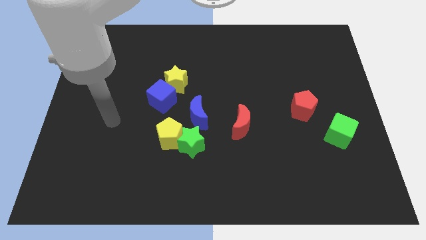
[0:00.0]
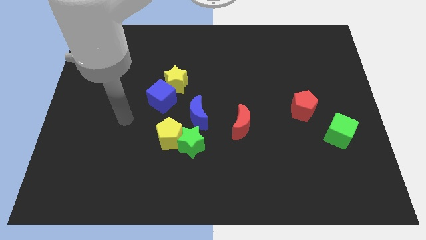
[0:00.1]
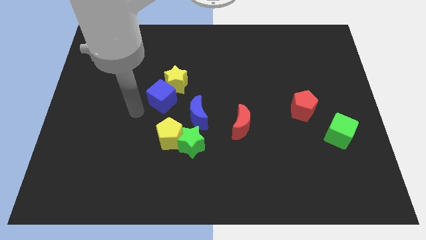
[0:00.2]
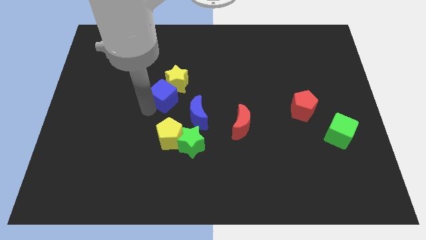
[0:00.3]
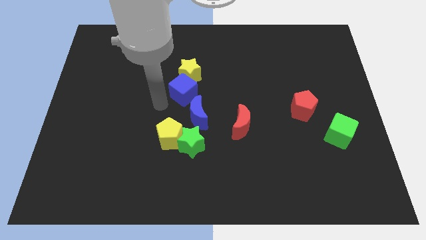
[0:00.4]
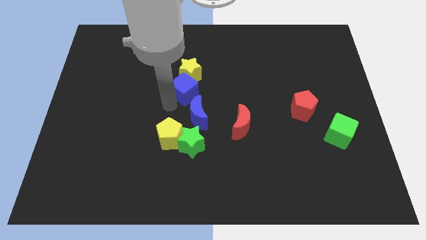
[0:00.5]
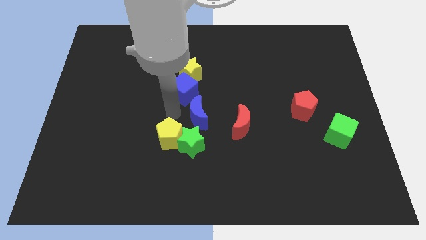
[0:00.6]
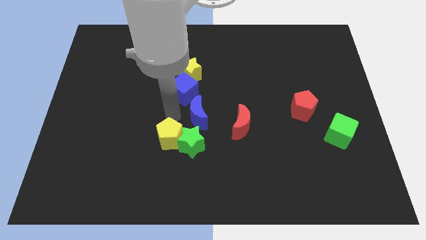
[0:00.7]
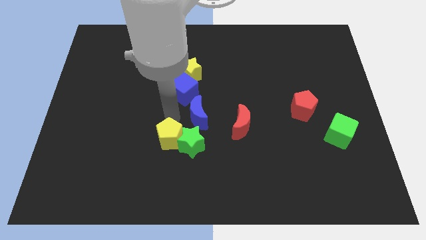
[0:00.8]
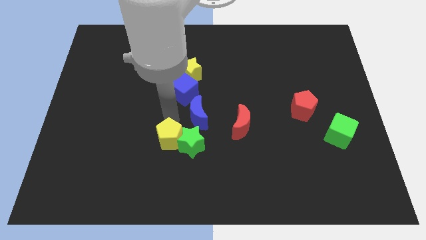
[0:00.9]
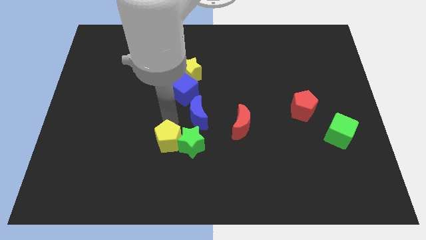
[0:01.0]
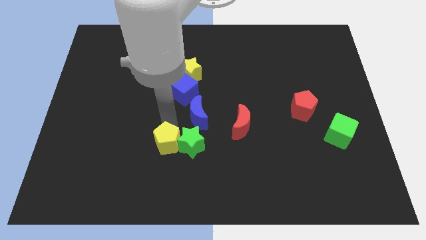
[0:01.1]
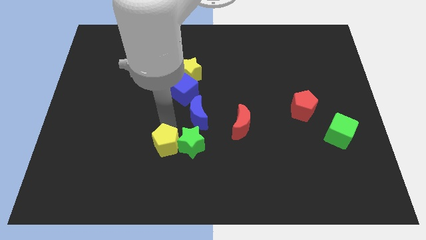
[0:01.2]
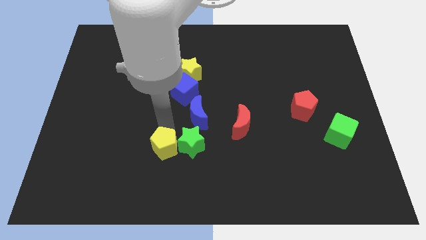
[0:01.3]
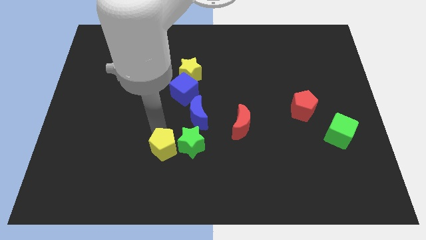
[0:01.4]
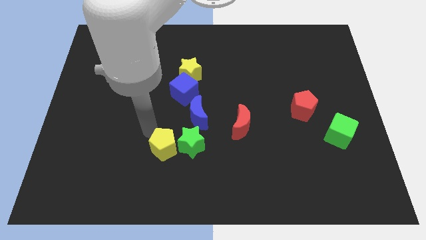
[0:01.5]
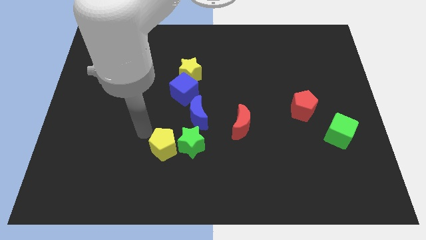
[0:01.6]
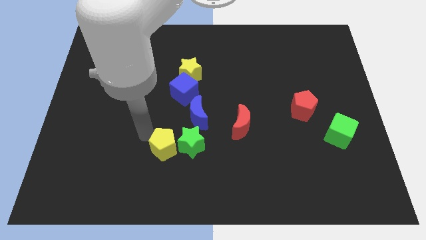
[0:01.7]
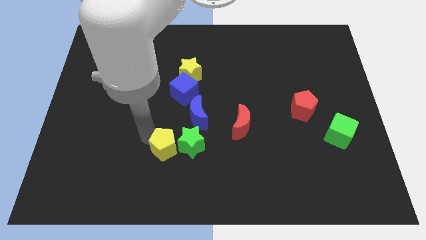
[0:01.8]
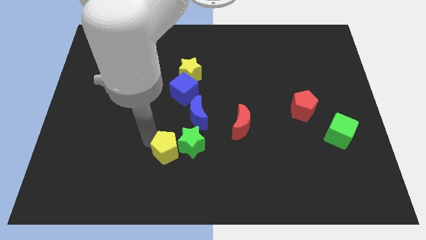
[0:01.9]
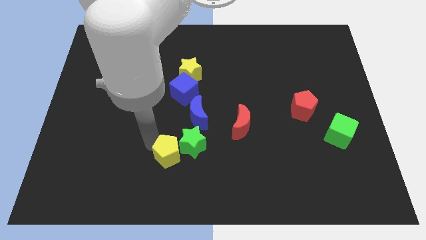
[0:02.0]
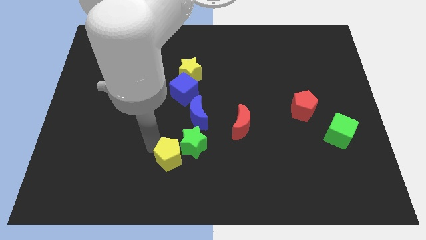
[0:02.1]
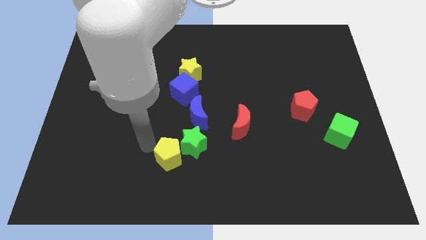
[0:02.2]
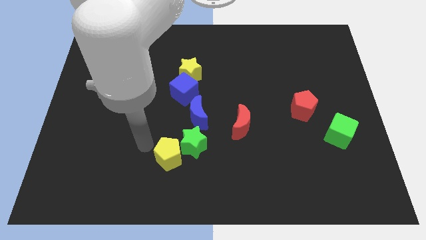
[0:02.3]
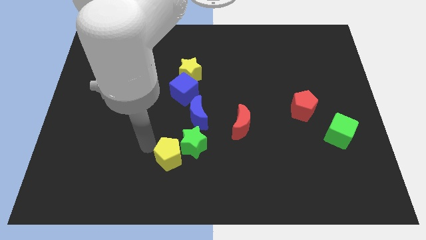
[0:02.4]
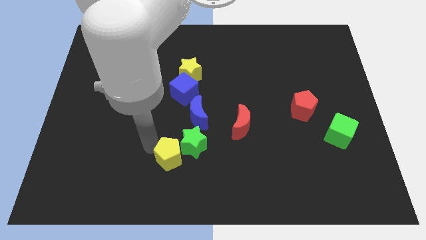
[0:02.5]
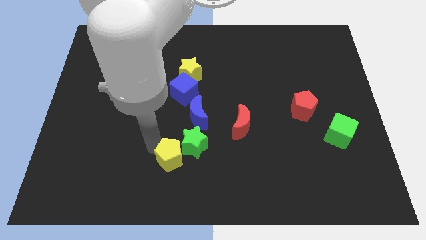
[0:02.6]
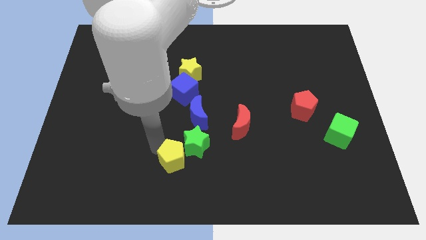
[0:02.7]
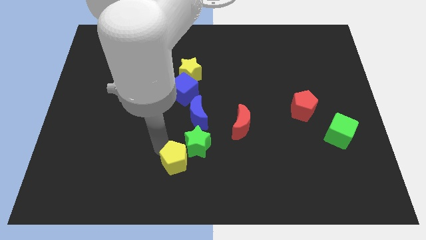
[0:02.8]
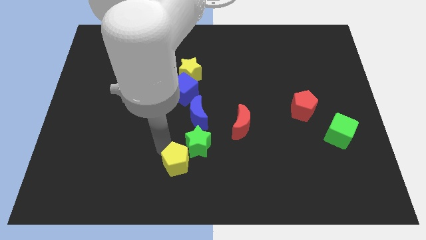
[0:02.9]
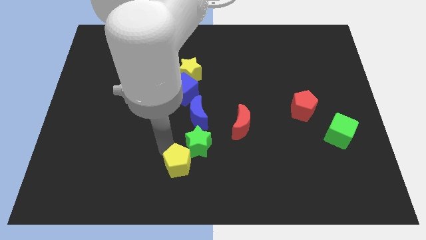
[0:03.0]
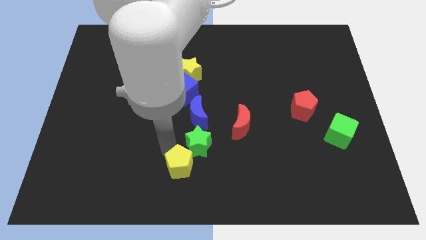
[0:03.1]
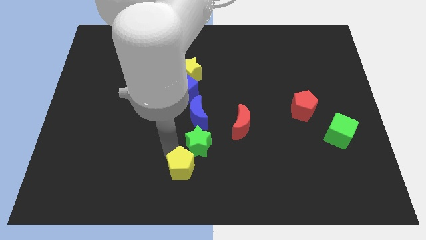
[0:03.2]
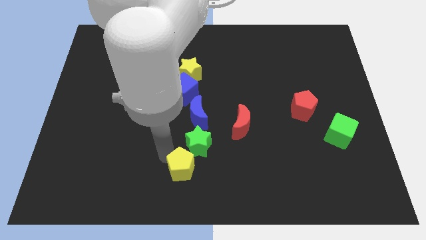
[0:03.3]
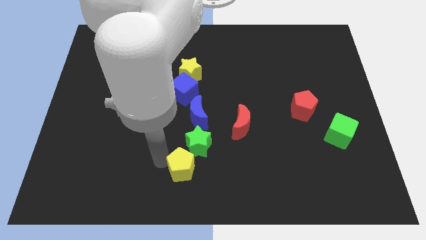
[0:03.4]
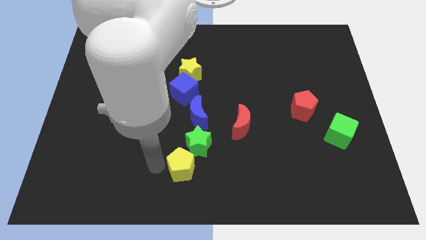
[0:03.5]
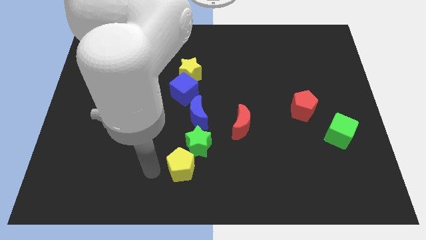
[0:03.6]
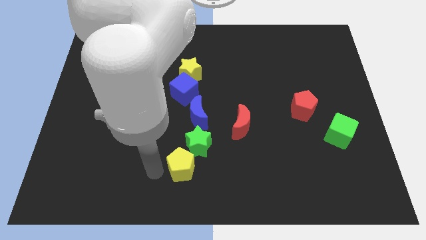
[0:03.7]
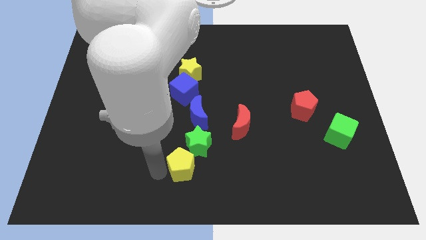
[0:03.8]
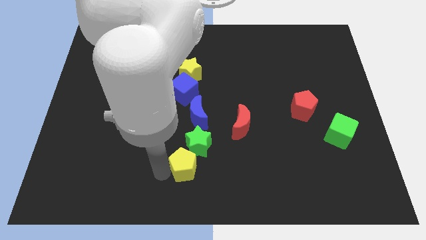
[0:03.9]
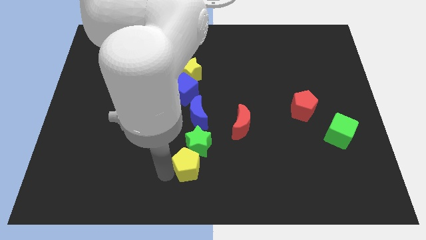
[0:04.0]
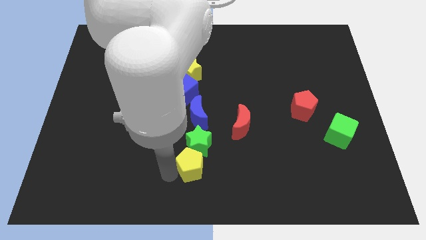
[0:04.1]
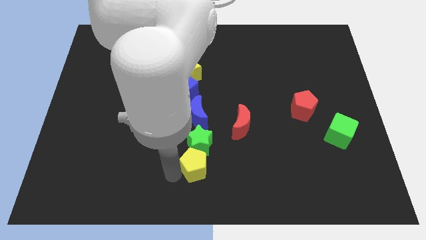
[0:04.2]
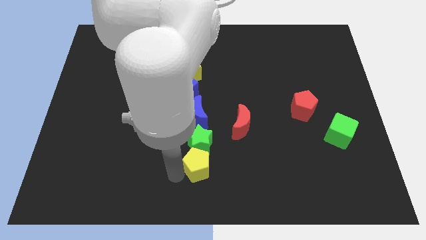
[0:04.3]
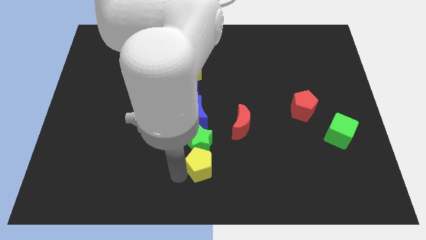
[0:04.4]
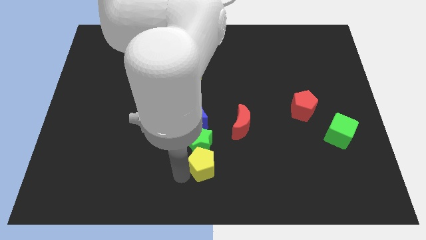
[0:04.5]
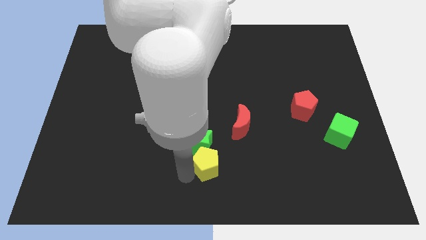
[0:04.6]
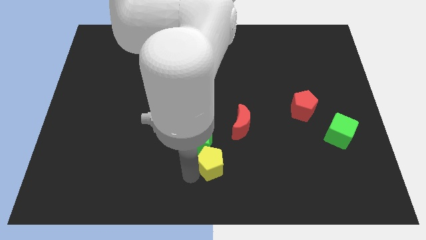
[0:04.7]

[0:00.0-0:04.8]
slide the yellow pentagon right a bit

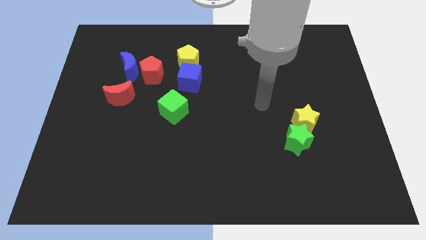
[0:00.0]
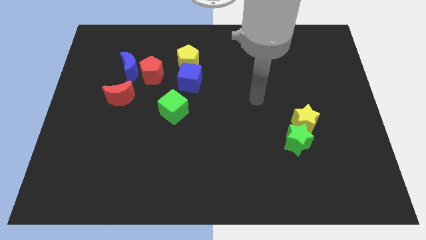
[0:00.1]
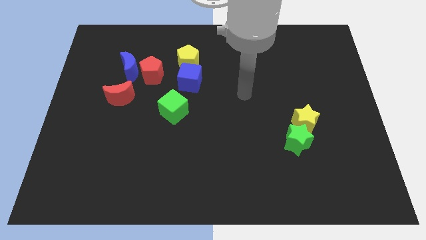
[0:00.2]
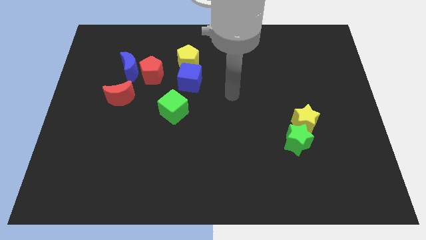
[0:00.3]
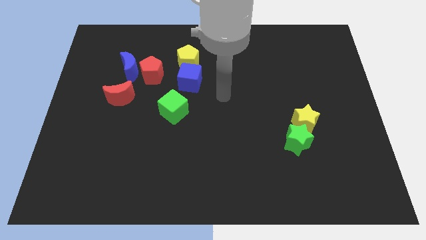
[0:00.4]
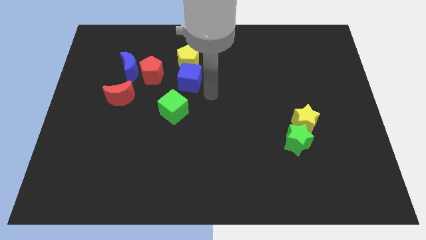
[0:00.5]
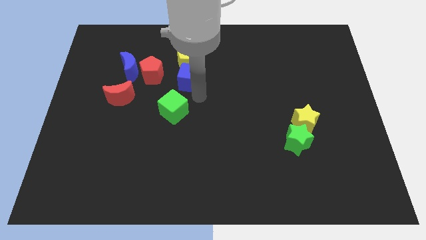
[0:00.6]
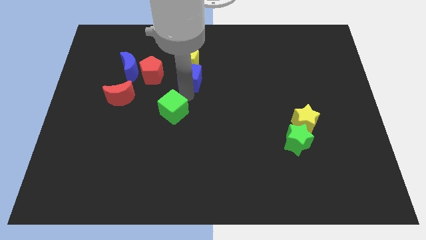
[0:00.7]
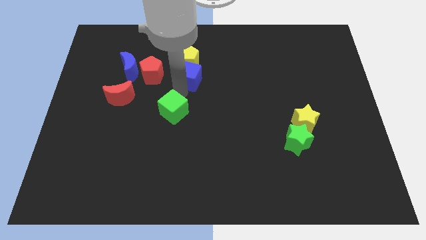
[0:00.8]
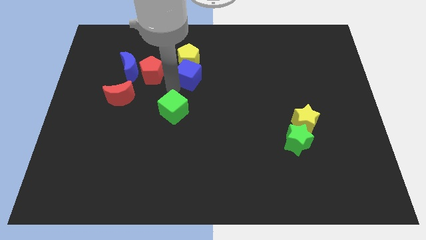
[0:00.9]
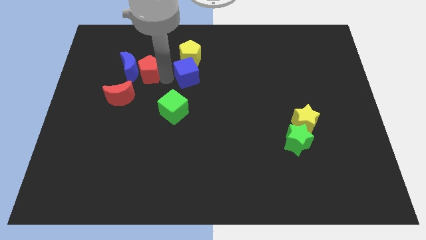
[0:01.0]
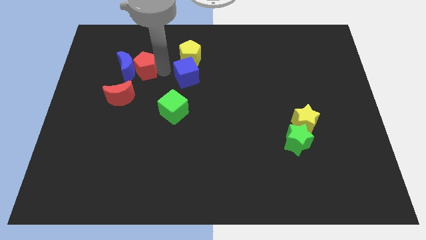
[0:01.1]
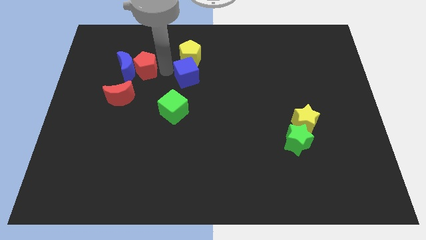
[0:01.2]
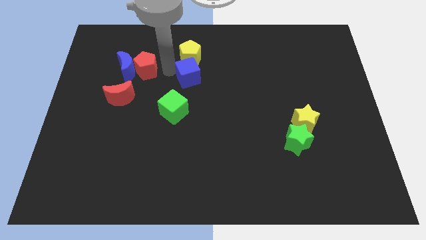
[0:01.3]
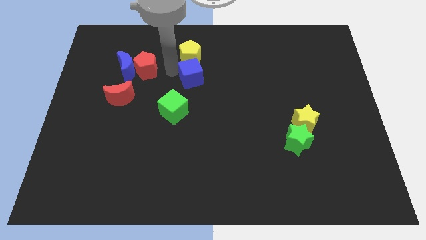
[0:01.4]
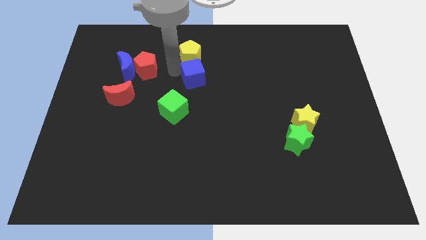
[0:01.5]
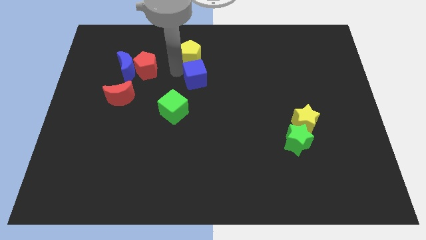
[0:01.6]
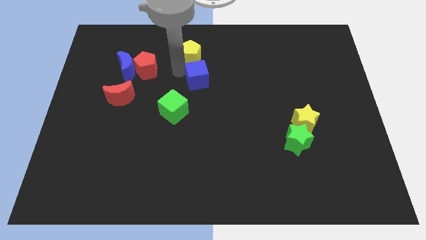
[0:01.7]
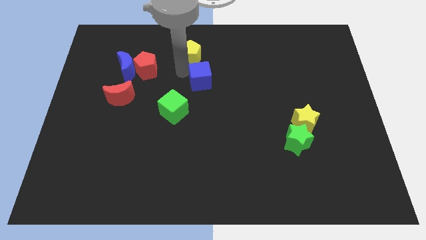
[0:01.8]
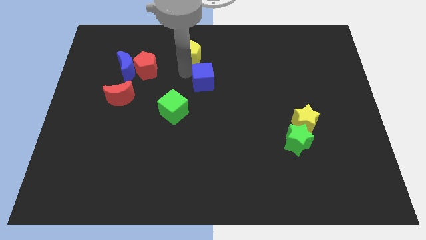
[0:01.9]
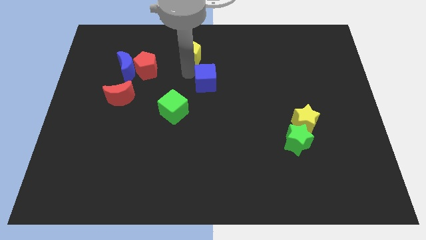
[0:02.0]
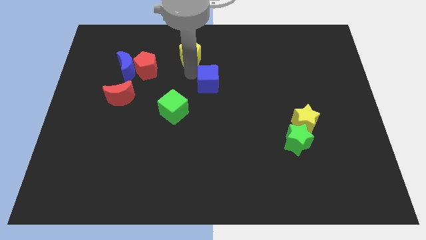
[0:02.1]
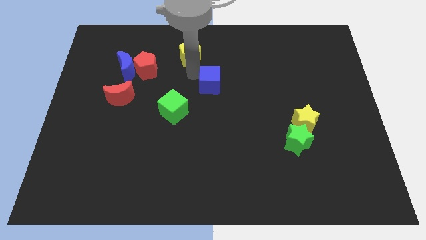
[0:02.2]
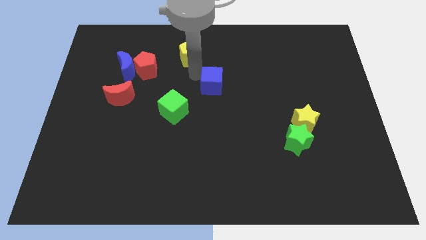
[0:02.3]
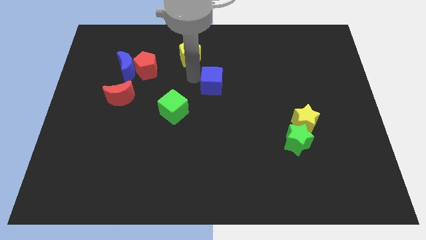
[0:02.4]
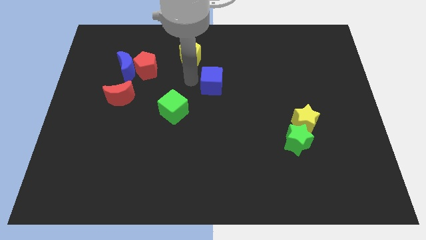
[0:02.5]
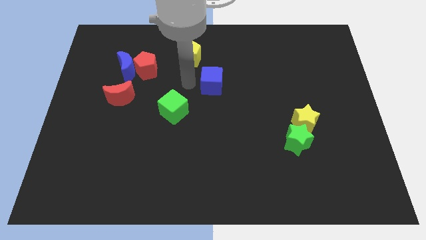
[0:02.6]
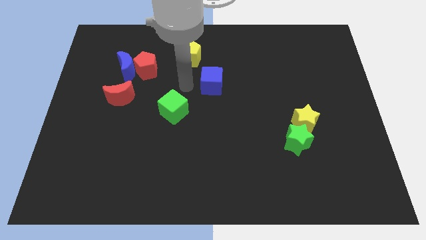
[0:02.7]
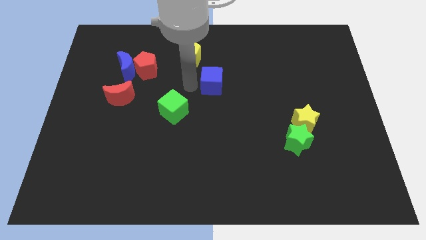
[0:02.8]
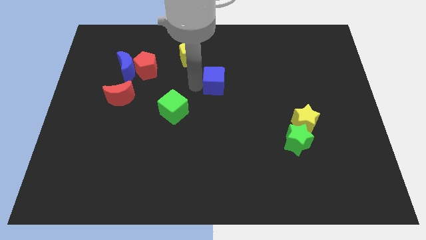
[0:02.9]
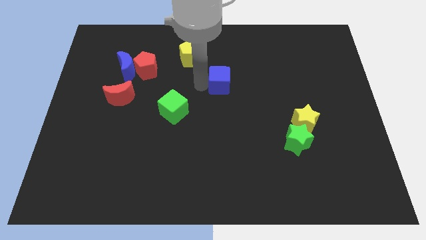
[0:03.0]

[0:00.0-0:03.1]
slide the blue cube a little right
